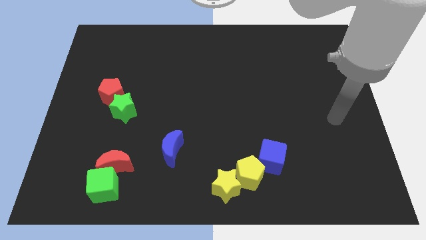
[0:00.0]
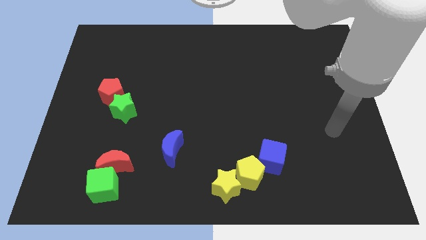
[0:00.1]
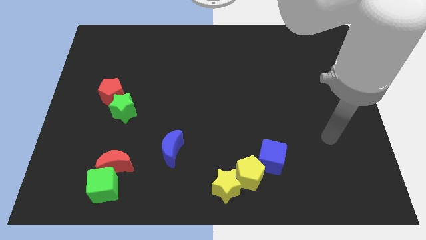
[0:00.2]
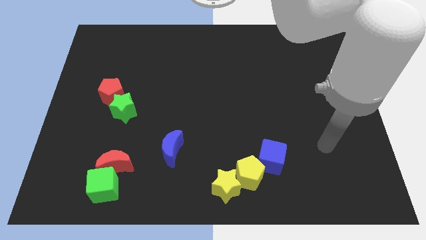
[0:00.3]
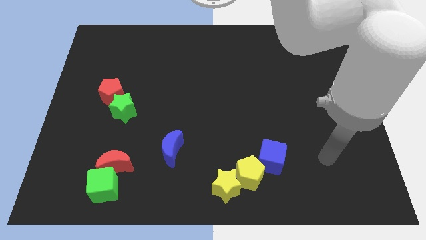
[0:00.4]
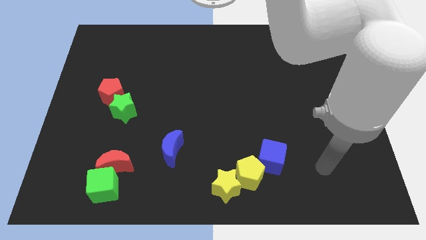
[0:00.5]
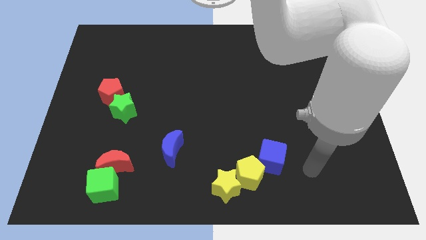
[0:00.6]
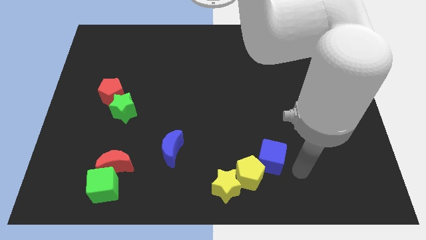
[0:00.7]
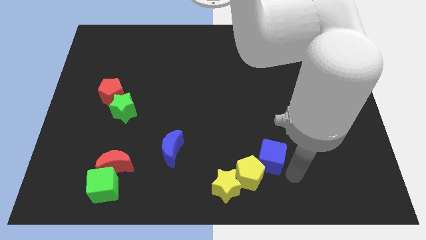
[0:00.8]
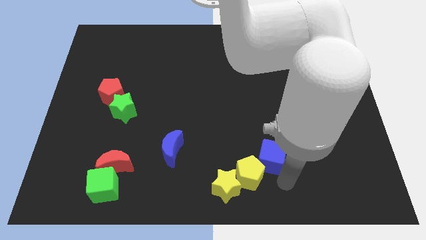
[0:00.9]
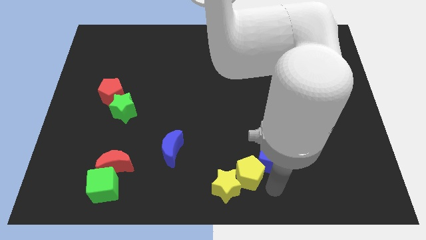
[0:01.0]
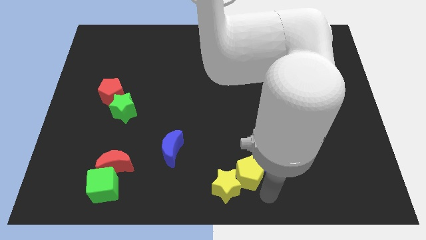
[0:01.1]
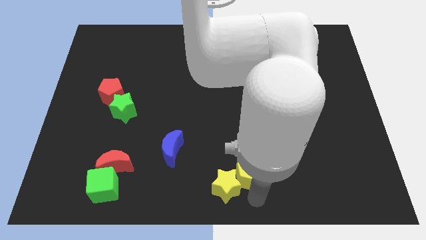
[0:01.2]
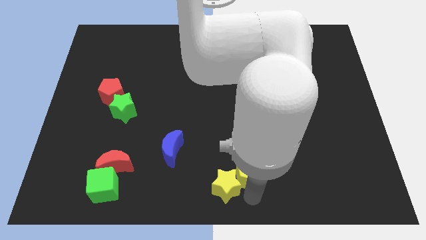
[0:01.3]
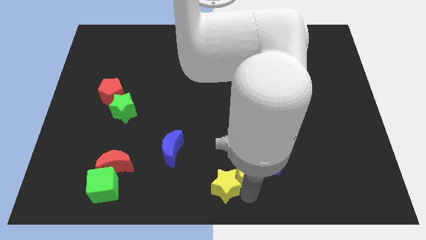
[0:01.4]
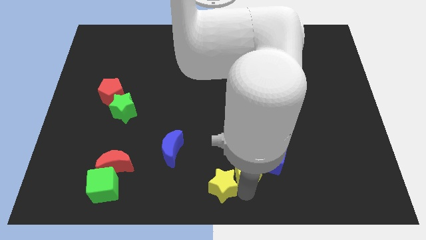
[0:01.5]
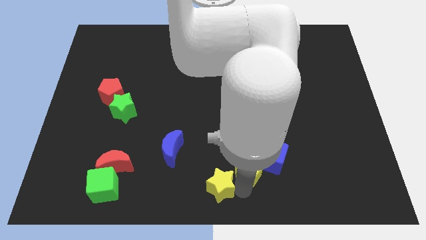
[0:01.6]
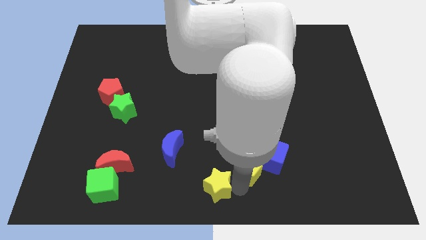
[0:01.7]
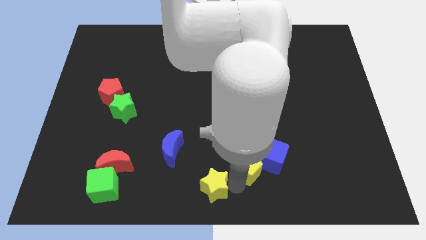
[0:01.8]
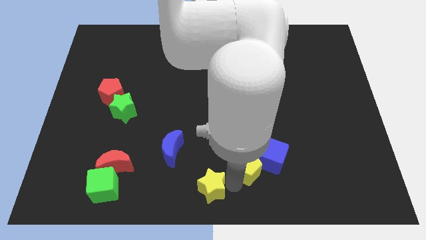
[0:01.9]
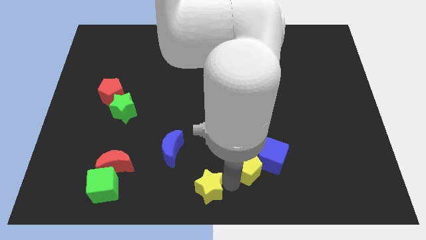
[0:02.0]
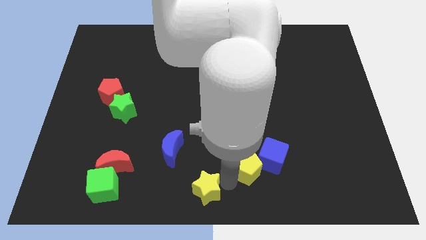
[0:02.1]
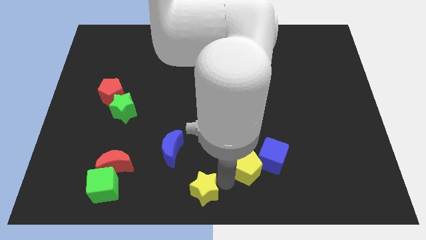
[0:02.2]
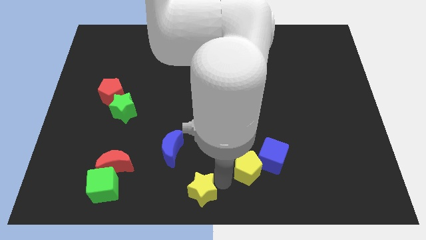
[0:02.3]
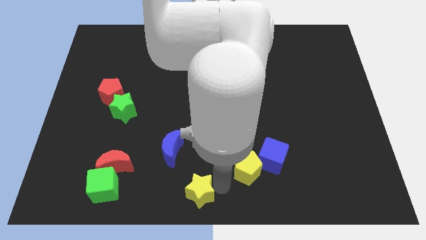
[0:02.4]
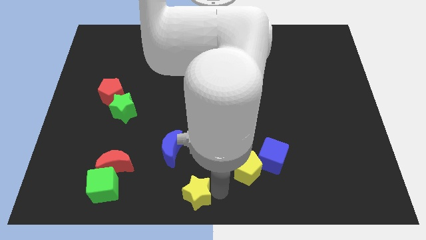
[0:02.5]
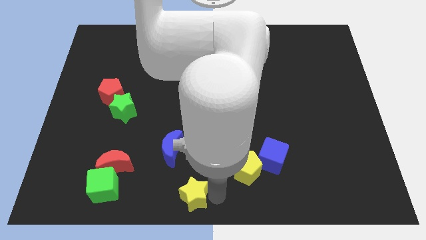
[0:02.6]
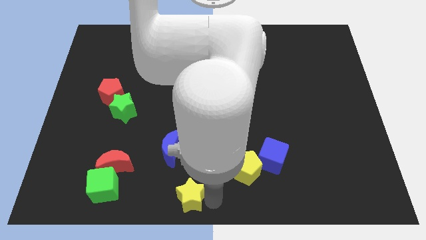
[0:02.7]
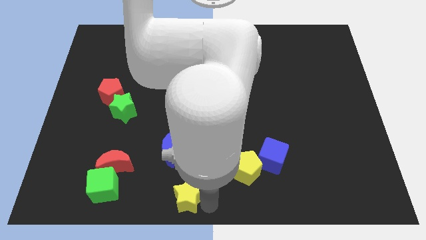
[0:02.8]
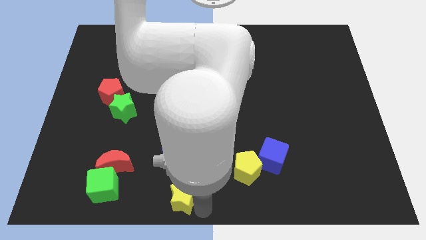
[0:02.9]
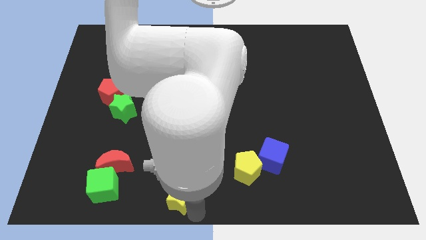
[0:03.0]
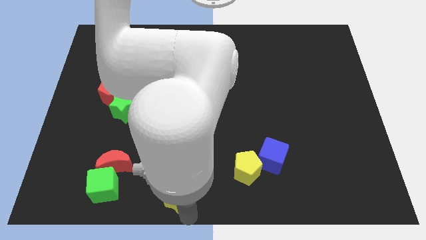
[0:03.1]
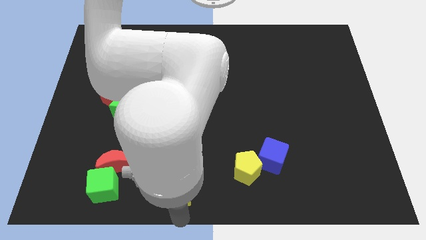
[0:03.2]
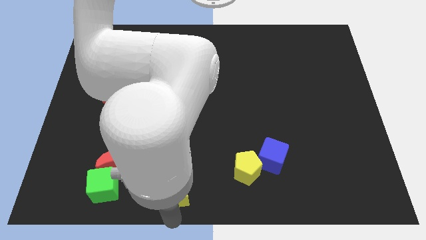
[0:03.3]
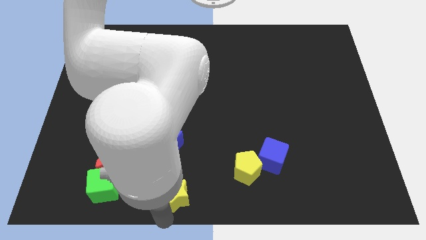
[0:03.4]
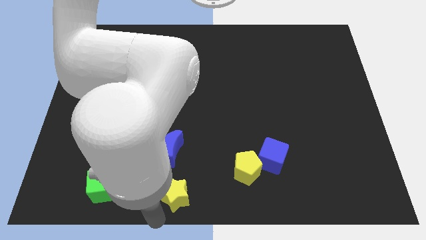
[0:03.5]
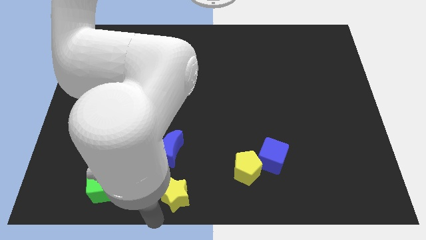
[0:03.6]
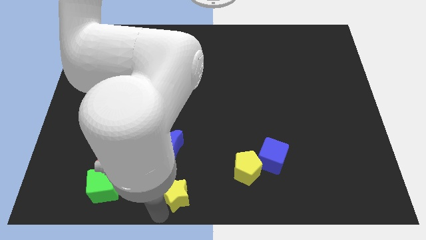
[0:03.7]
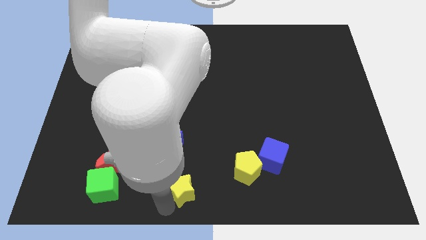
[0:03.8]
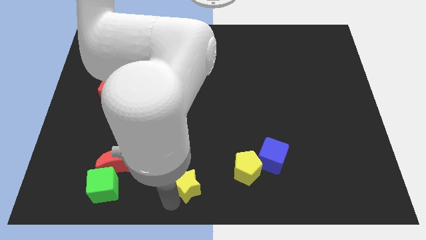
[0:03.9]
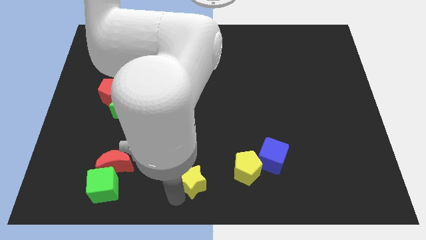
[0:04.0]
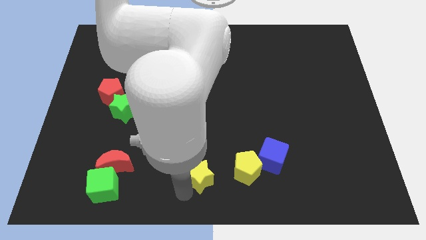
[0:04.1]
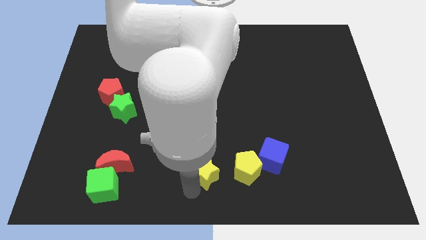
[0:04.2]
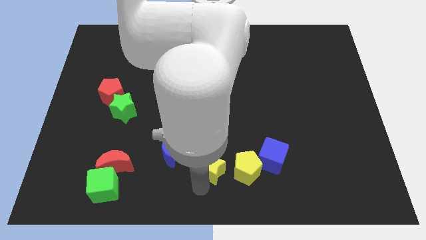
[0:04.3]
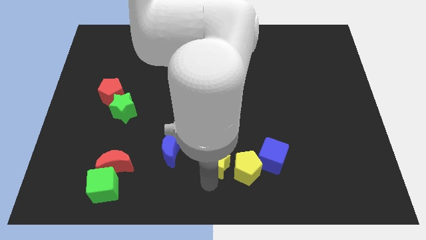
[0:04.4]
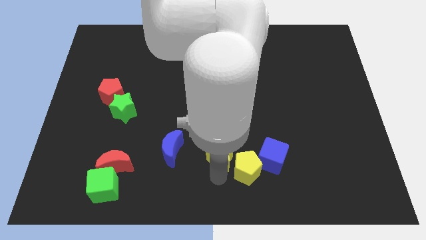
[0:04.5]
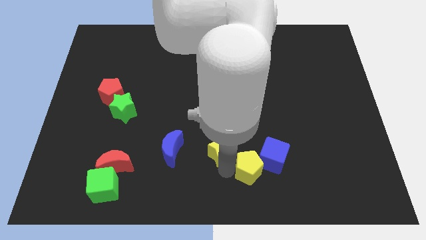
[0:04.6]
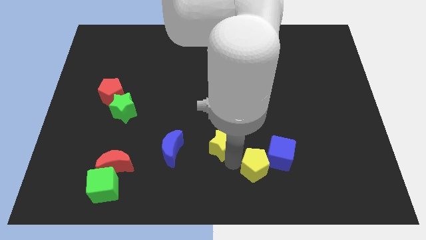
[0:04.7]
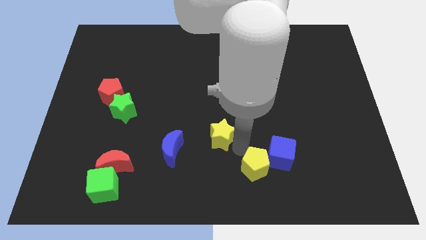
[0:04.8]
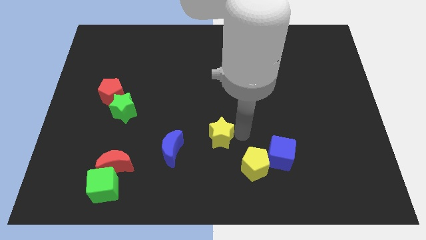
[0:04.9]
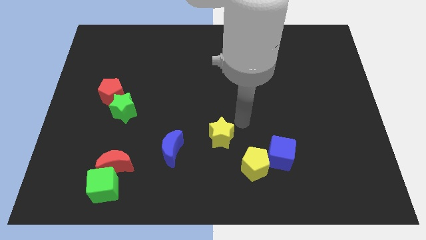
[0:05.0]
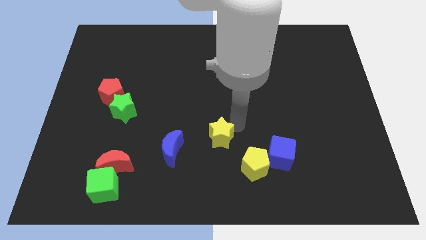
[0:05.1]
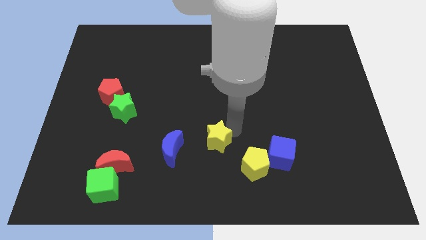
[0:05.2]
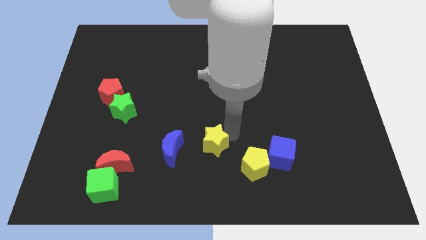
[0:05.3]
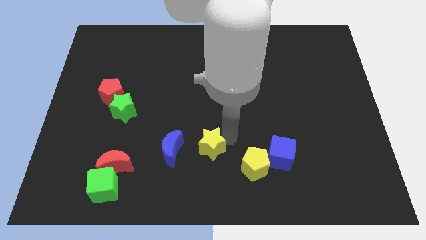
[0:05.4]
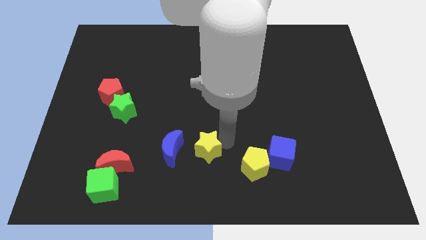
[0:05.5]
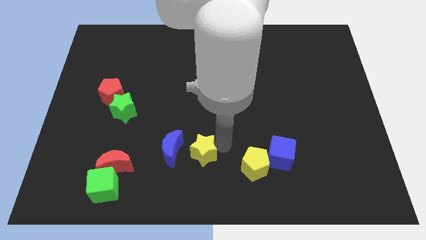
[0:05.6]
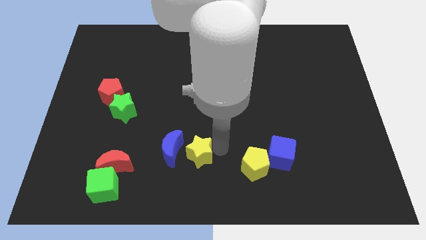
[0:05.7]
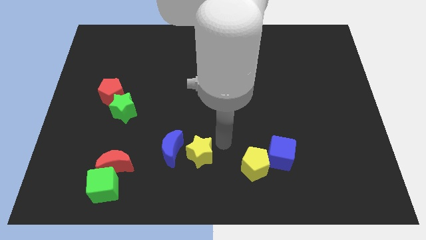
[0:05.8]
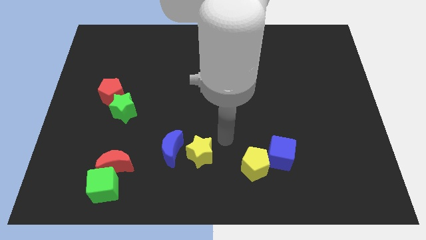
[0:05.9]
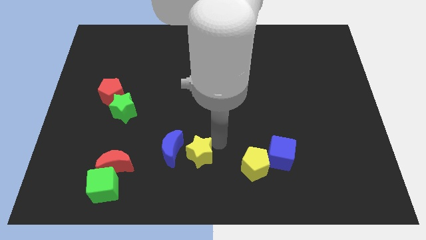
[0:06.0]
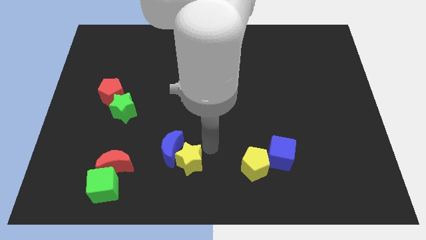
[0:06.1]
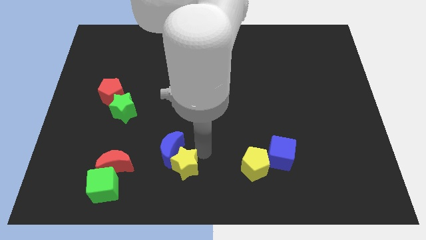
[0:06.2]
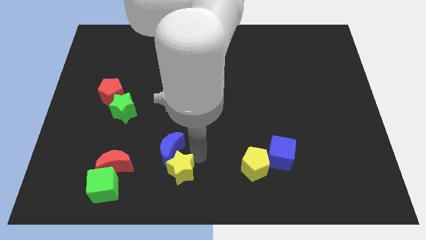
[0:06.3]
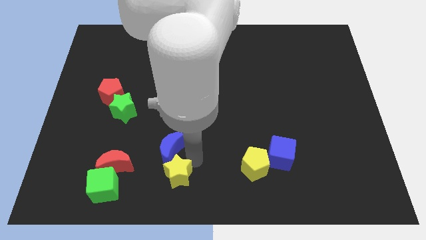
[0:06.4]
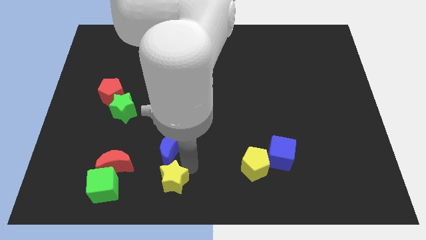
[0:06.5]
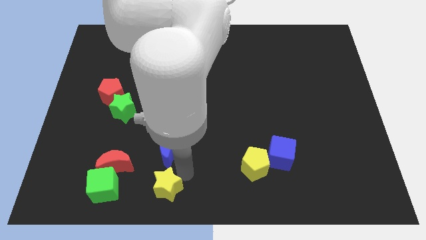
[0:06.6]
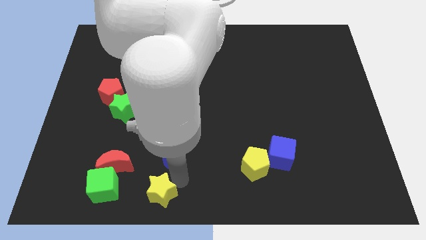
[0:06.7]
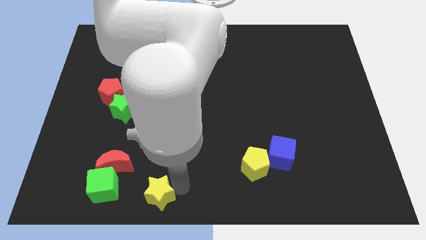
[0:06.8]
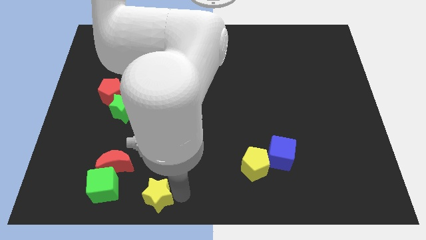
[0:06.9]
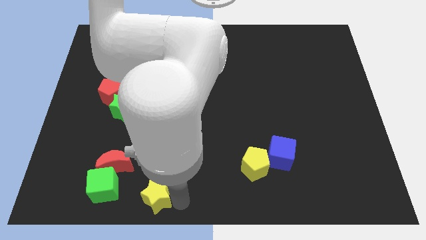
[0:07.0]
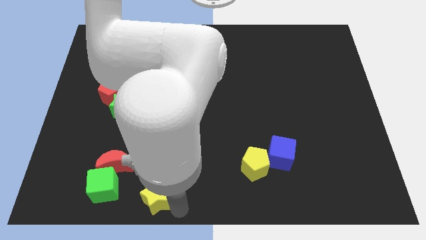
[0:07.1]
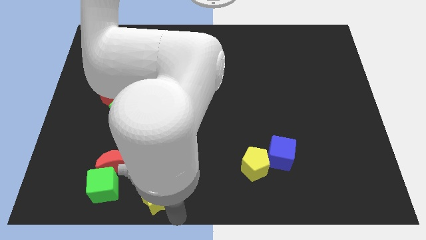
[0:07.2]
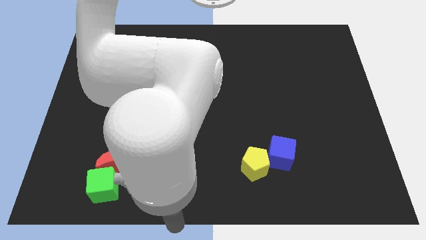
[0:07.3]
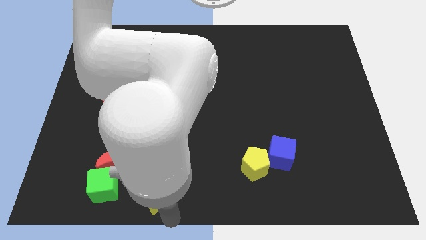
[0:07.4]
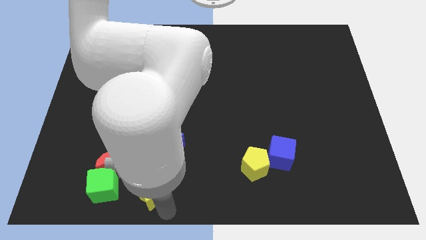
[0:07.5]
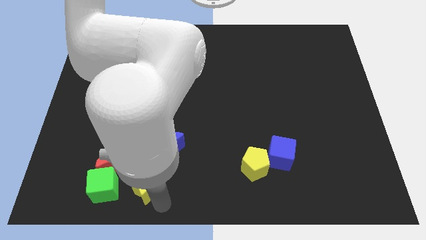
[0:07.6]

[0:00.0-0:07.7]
move the yellow star to the bottom left side of the blue moon
